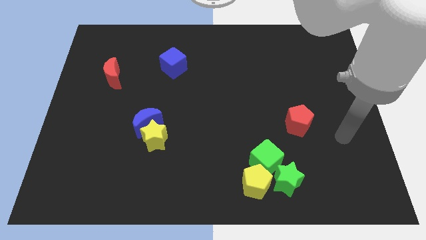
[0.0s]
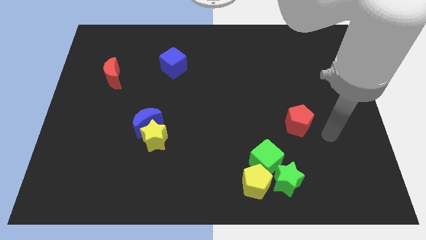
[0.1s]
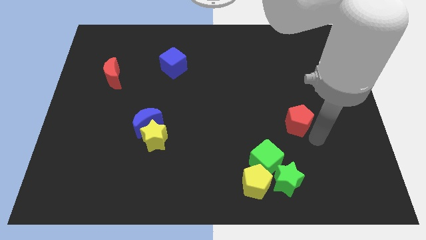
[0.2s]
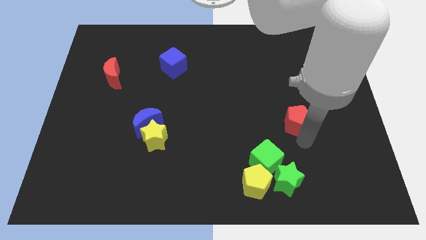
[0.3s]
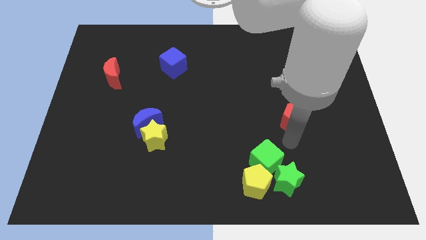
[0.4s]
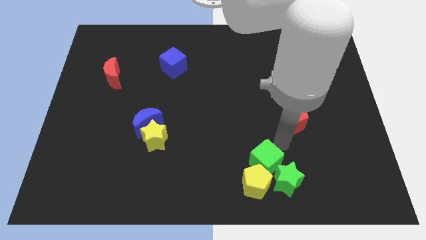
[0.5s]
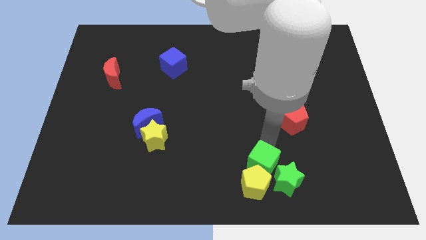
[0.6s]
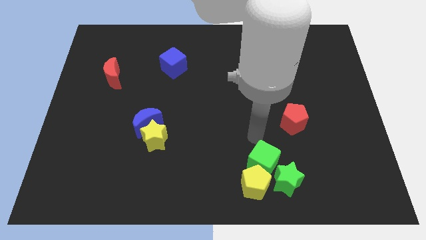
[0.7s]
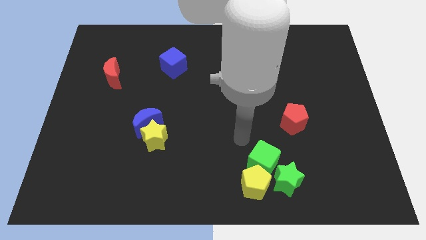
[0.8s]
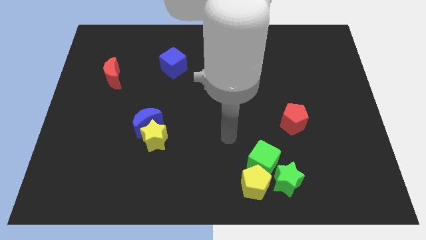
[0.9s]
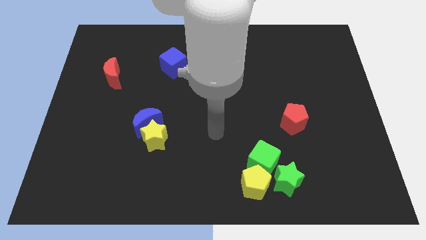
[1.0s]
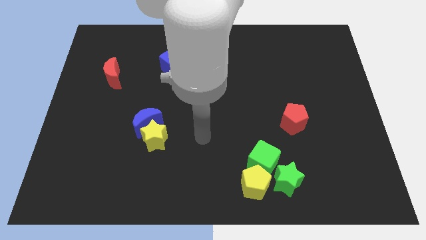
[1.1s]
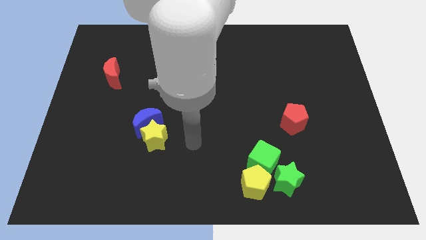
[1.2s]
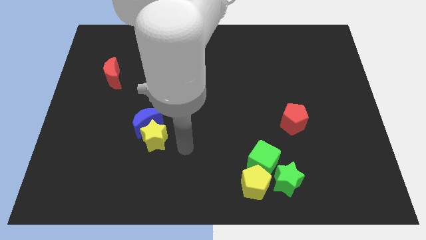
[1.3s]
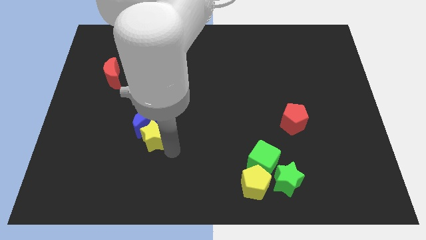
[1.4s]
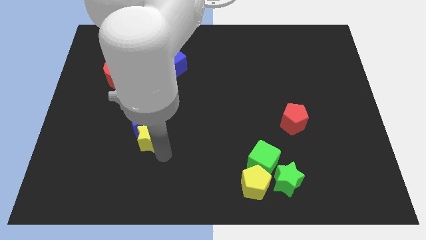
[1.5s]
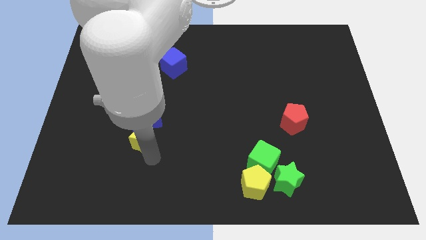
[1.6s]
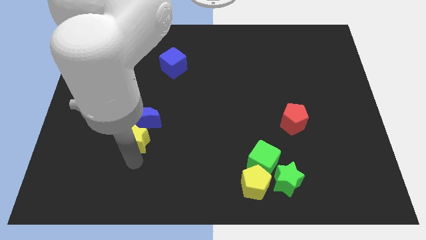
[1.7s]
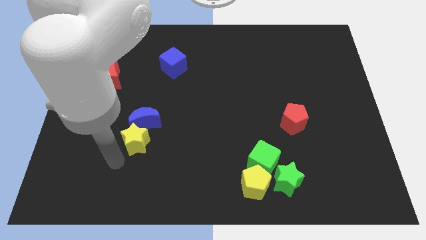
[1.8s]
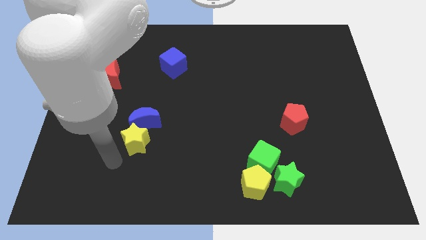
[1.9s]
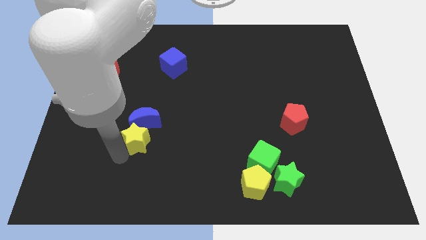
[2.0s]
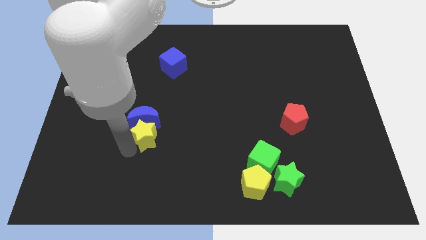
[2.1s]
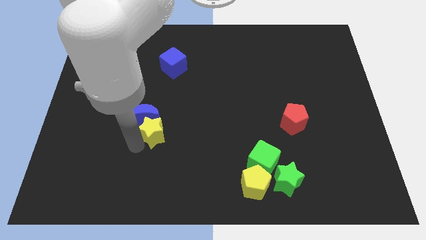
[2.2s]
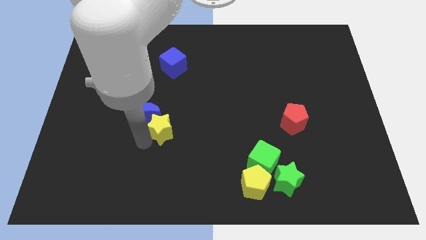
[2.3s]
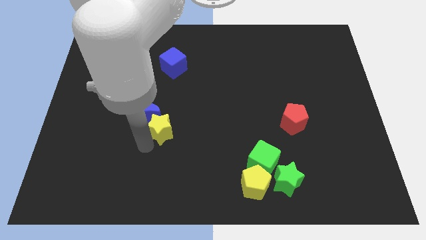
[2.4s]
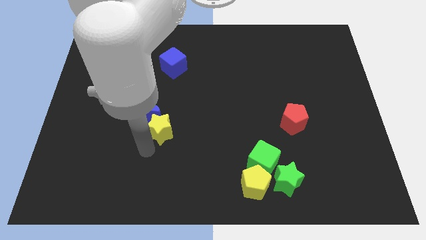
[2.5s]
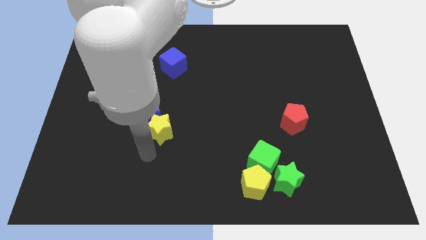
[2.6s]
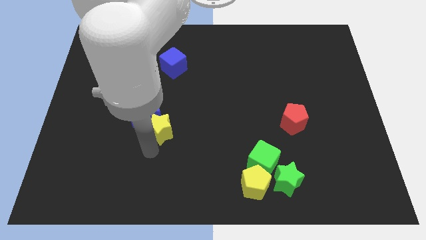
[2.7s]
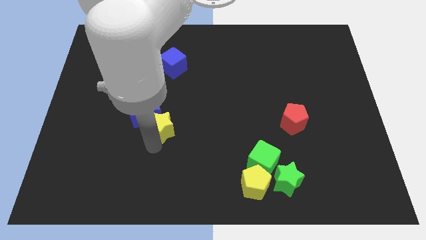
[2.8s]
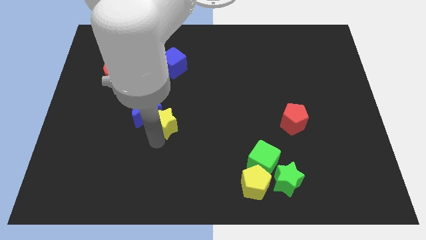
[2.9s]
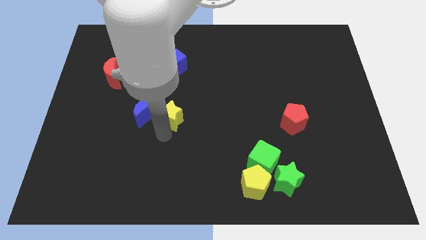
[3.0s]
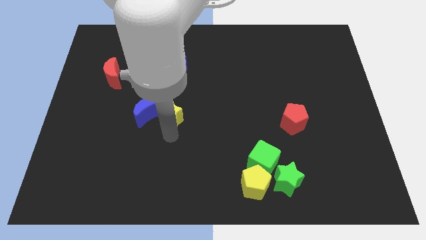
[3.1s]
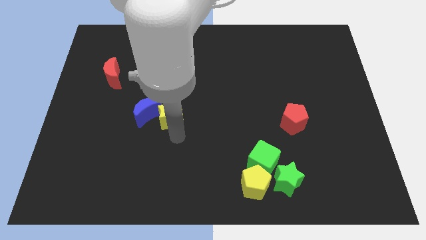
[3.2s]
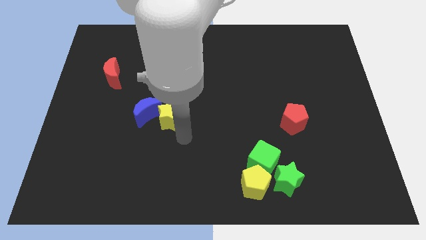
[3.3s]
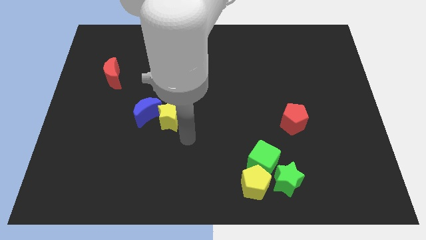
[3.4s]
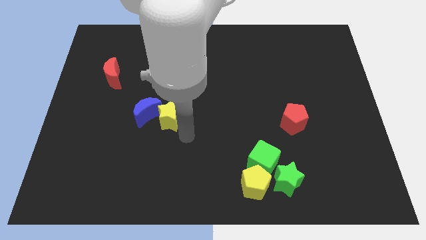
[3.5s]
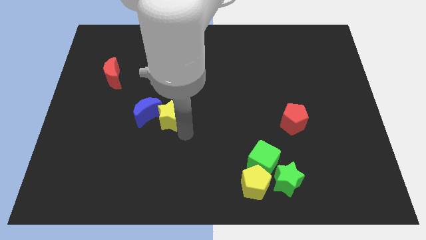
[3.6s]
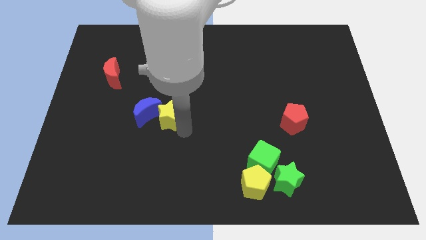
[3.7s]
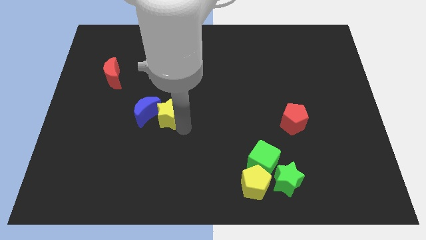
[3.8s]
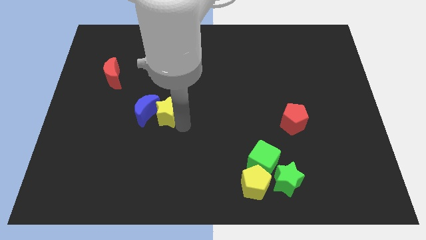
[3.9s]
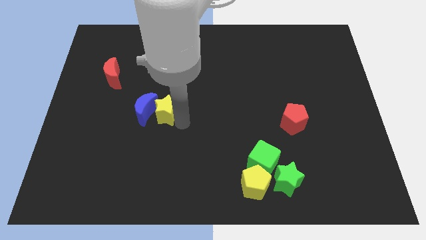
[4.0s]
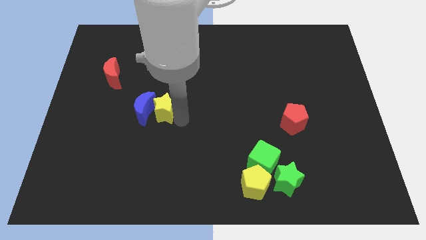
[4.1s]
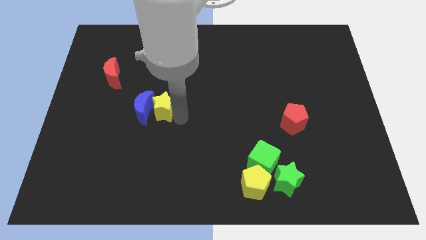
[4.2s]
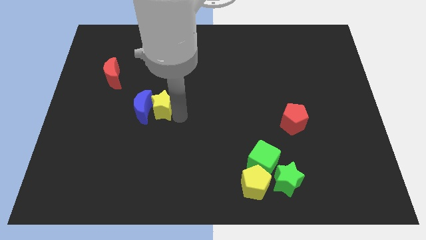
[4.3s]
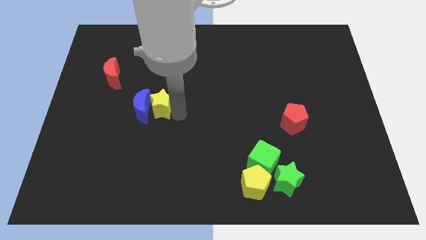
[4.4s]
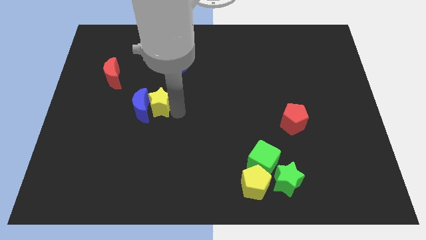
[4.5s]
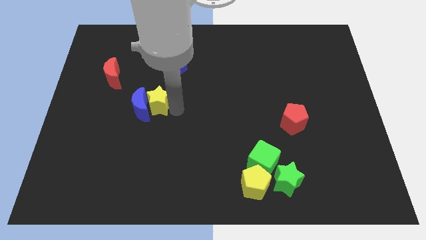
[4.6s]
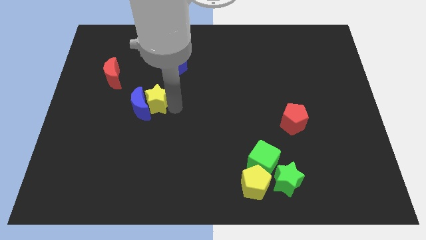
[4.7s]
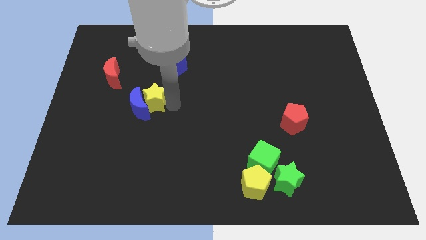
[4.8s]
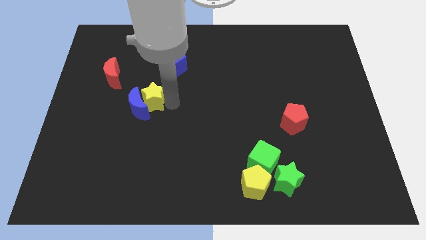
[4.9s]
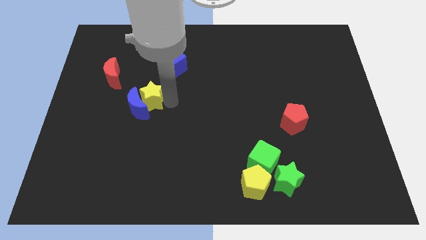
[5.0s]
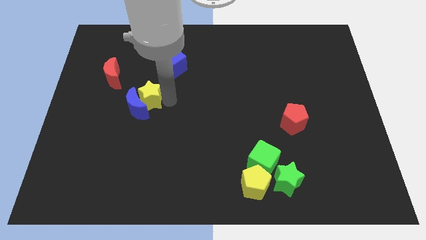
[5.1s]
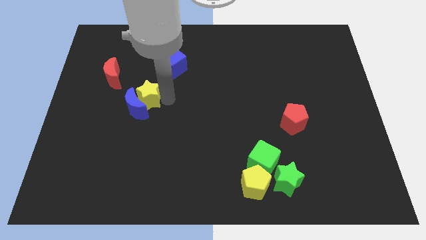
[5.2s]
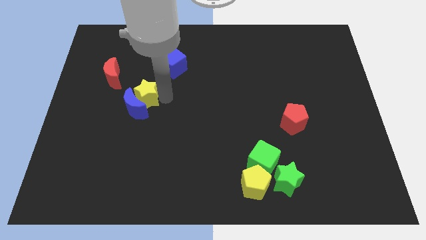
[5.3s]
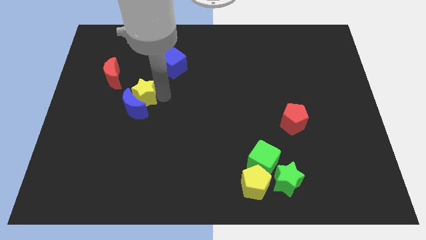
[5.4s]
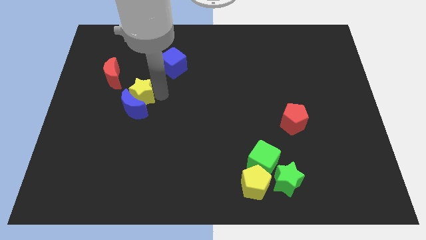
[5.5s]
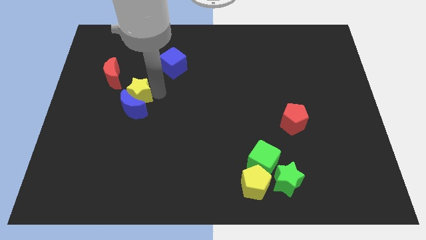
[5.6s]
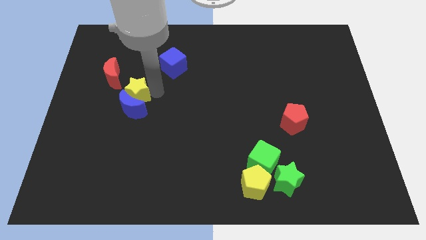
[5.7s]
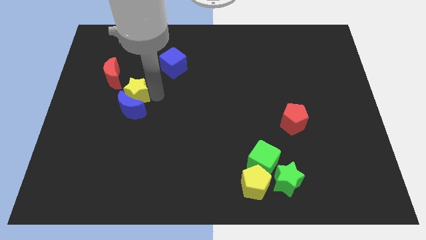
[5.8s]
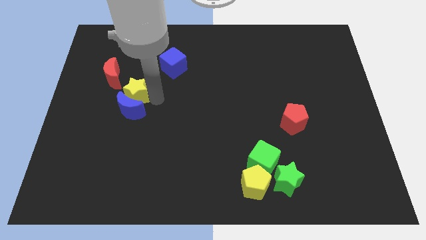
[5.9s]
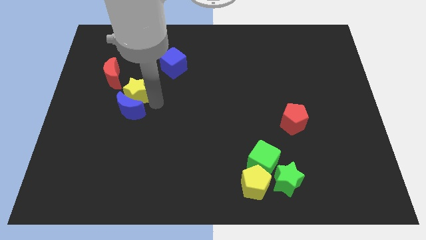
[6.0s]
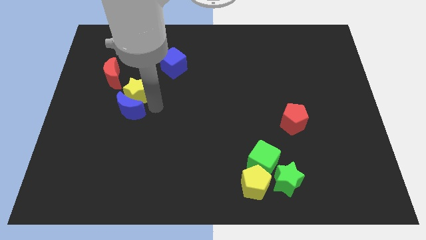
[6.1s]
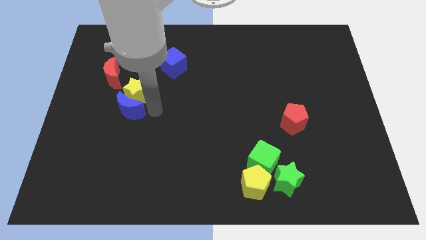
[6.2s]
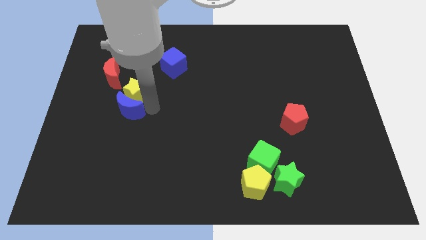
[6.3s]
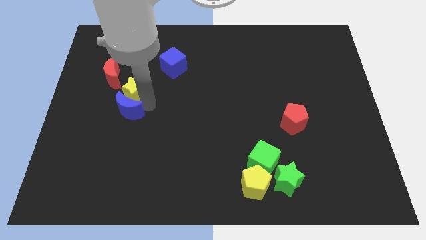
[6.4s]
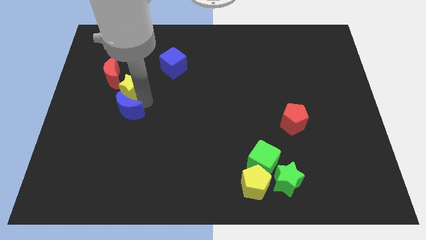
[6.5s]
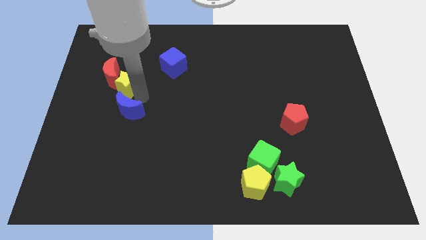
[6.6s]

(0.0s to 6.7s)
move the yellow star close to the red moon
